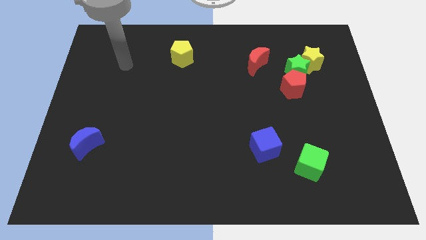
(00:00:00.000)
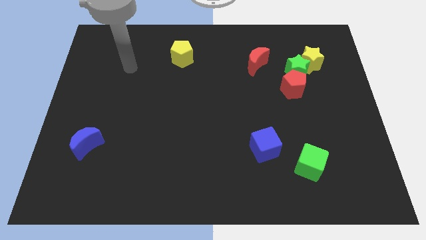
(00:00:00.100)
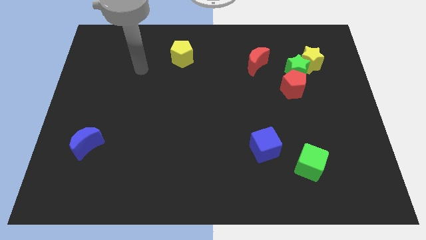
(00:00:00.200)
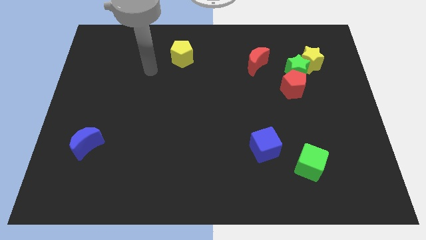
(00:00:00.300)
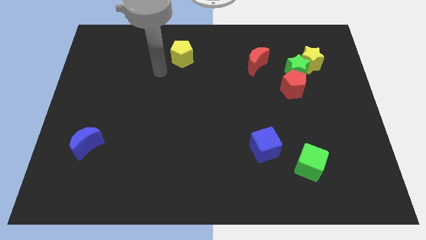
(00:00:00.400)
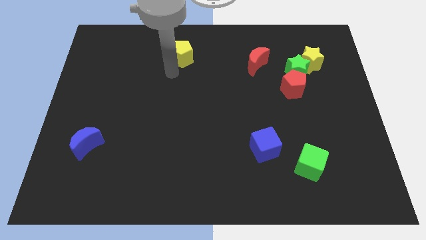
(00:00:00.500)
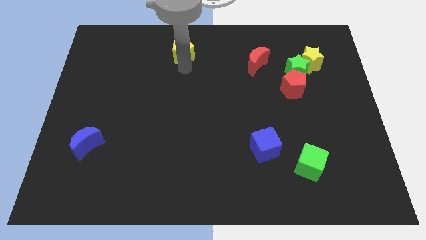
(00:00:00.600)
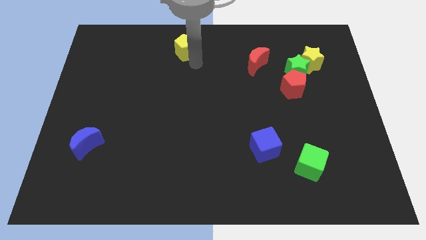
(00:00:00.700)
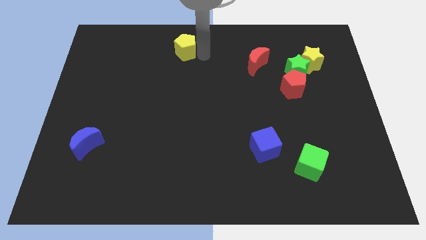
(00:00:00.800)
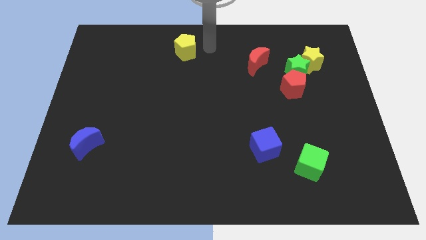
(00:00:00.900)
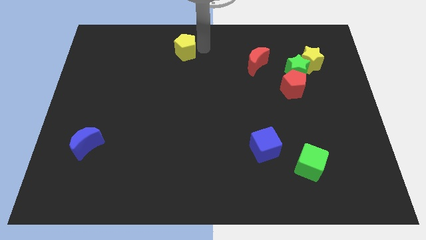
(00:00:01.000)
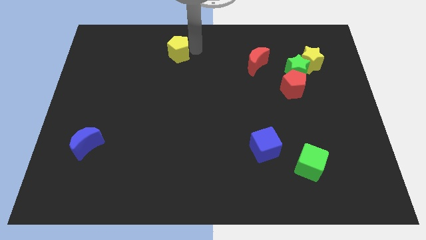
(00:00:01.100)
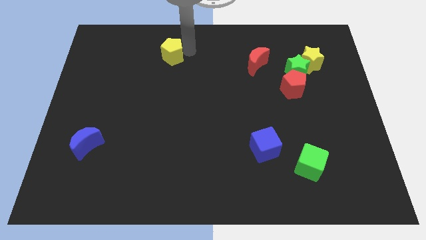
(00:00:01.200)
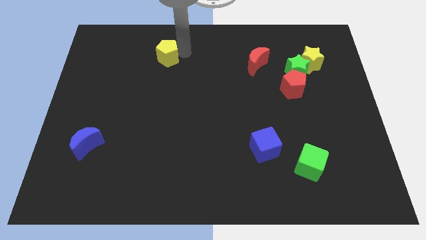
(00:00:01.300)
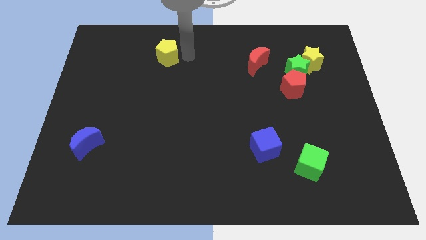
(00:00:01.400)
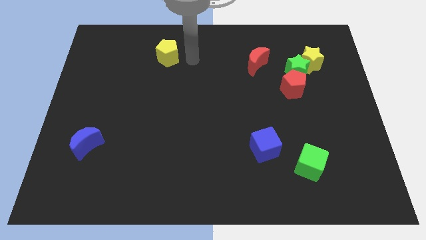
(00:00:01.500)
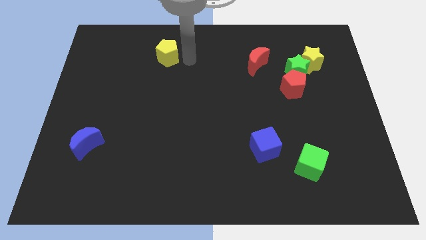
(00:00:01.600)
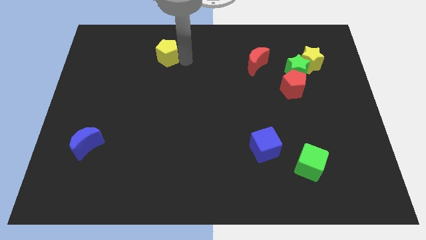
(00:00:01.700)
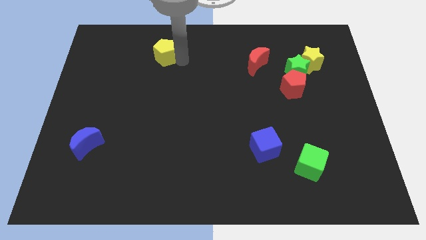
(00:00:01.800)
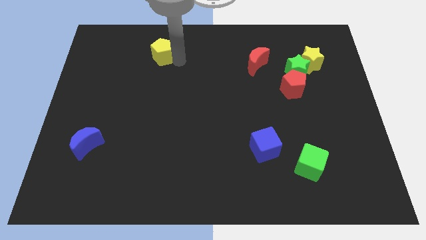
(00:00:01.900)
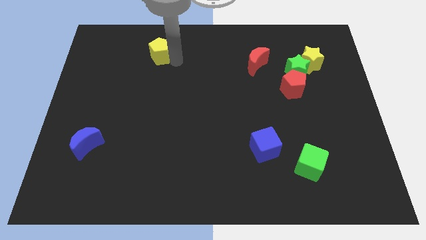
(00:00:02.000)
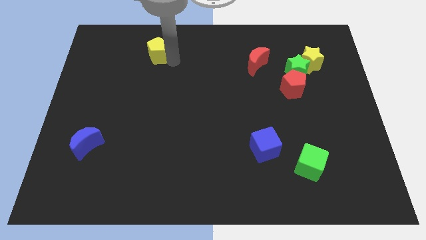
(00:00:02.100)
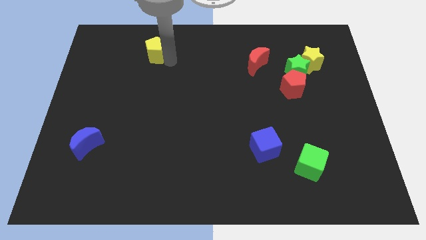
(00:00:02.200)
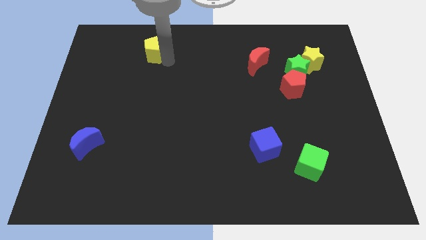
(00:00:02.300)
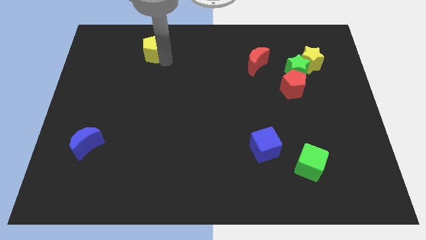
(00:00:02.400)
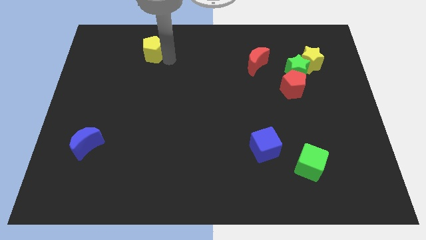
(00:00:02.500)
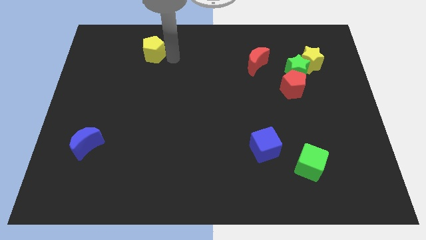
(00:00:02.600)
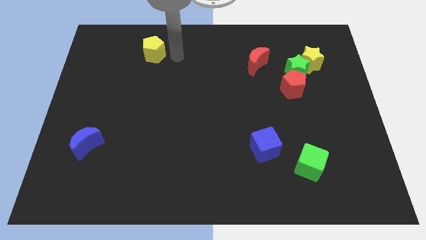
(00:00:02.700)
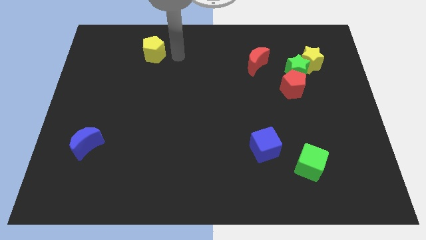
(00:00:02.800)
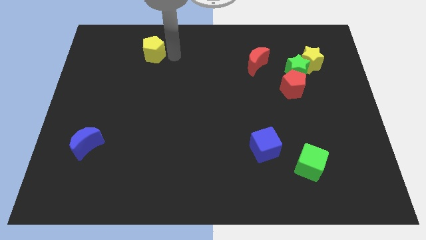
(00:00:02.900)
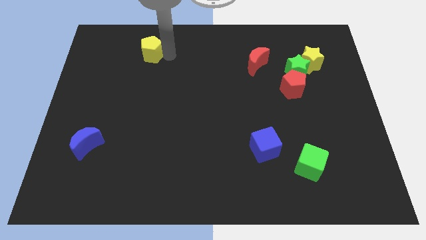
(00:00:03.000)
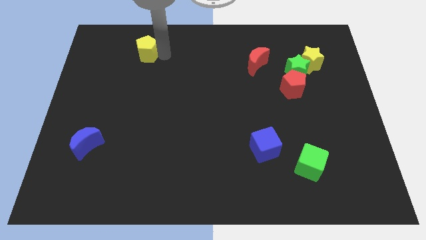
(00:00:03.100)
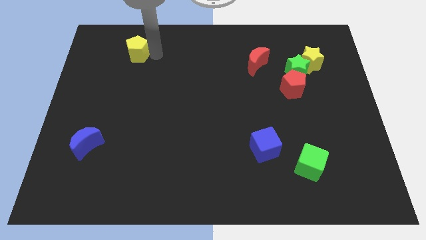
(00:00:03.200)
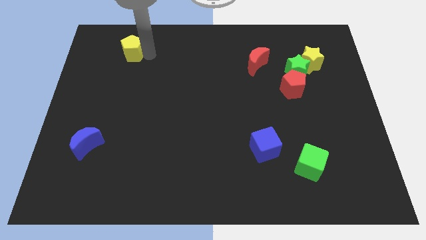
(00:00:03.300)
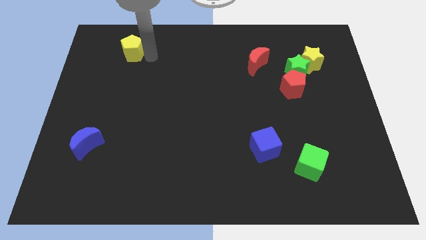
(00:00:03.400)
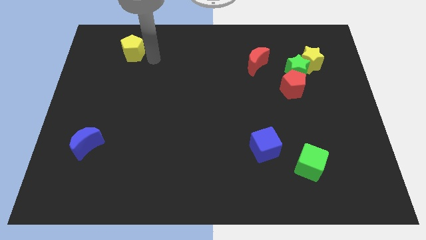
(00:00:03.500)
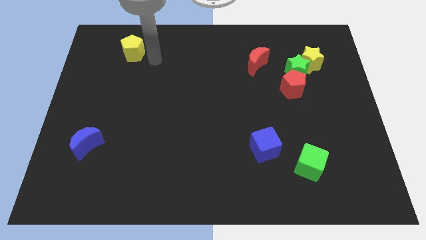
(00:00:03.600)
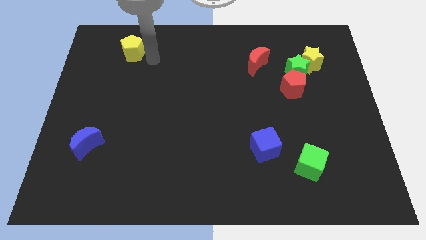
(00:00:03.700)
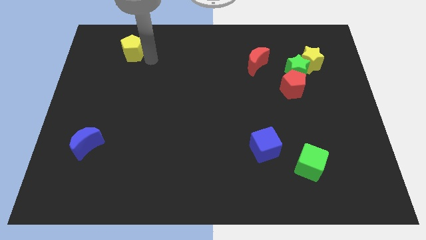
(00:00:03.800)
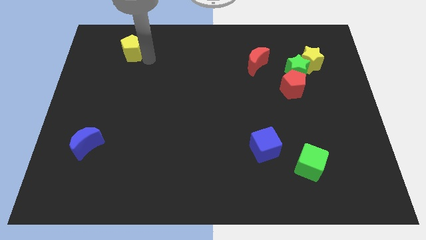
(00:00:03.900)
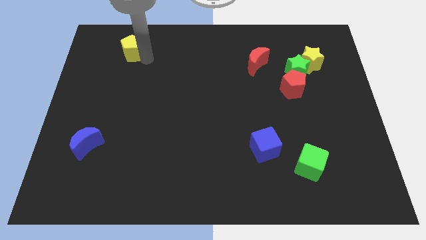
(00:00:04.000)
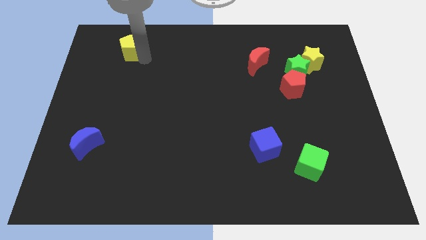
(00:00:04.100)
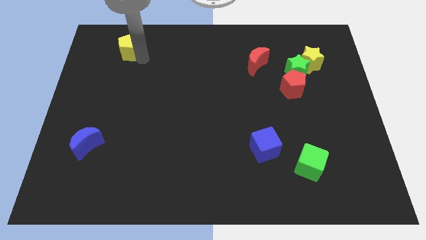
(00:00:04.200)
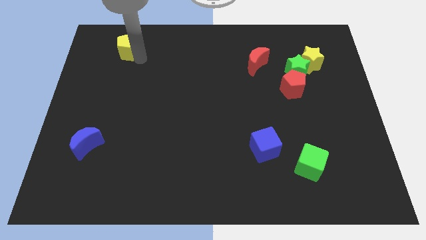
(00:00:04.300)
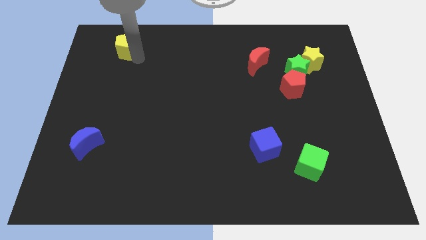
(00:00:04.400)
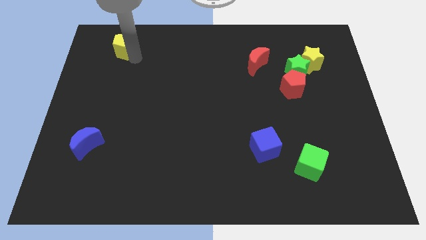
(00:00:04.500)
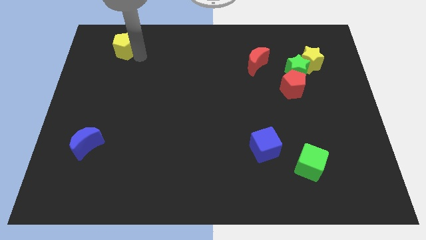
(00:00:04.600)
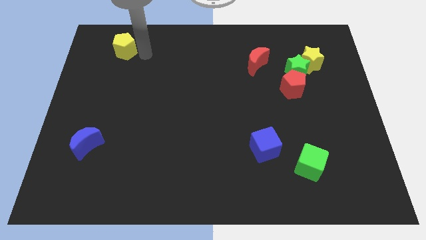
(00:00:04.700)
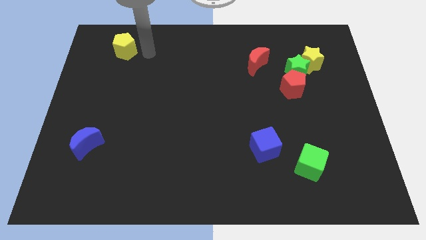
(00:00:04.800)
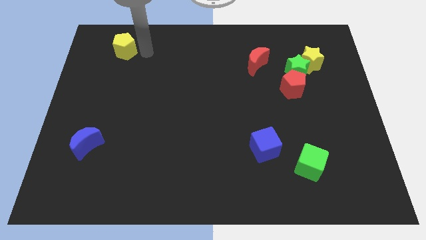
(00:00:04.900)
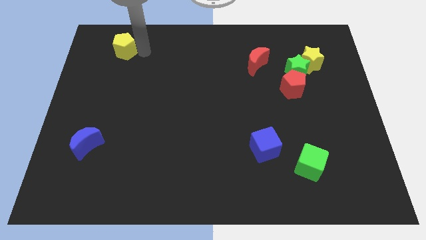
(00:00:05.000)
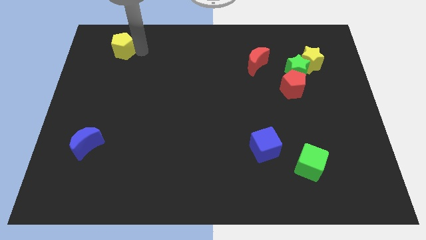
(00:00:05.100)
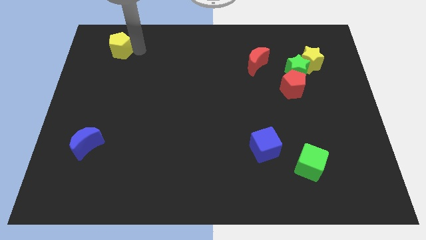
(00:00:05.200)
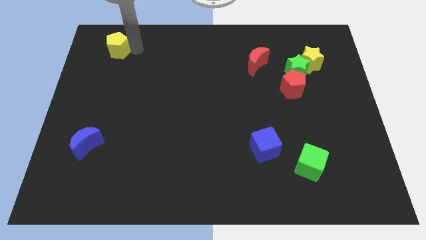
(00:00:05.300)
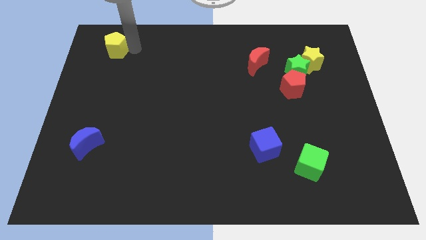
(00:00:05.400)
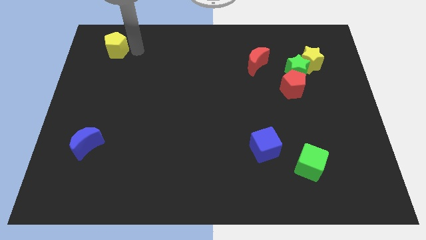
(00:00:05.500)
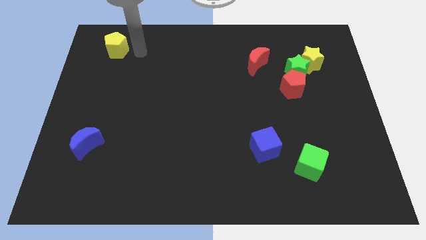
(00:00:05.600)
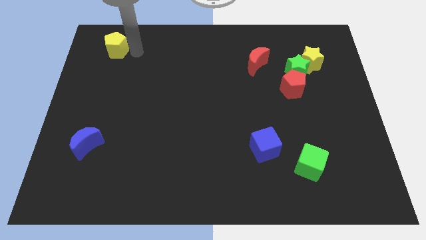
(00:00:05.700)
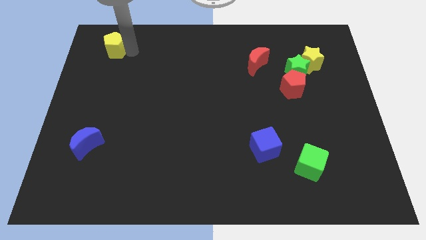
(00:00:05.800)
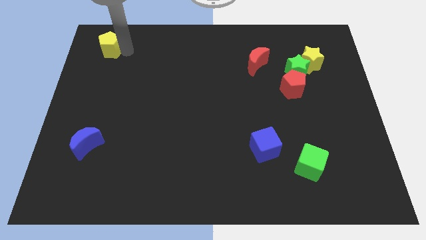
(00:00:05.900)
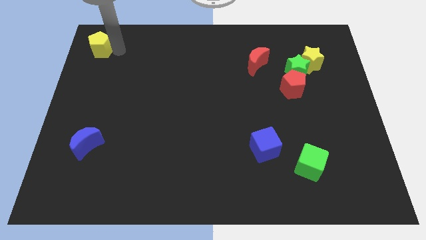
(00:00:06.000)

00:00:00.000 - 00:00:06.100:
move the yellow pentagon to the top left corner

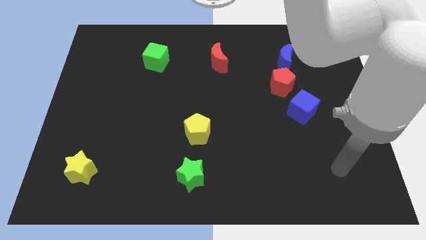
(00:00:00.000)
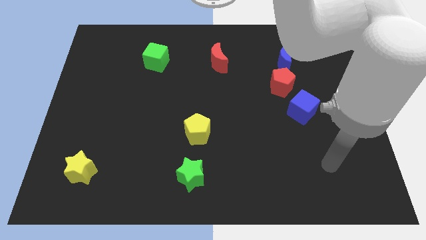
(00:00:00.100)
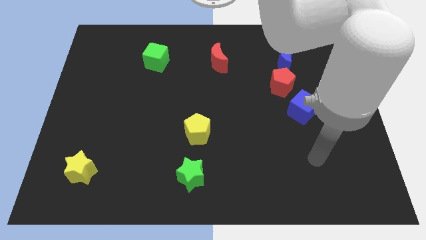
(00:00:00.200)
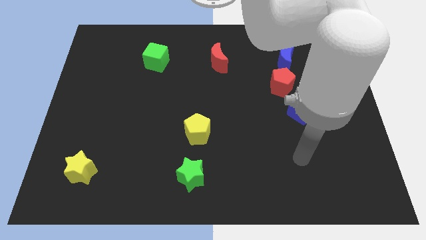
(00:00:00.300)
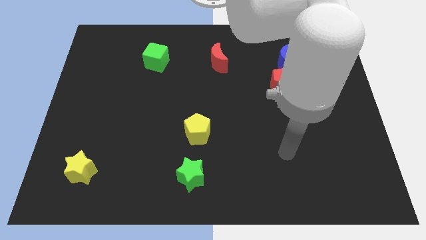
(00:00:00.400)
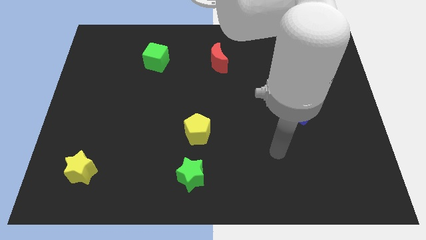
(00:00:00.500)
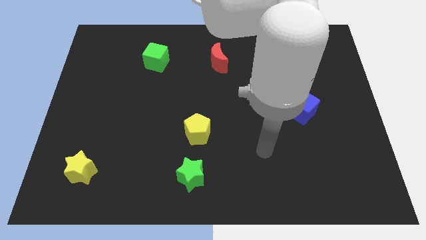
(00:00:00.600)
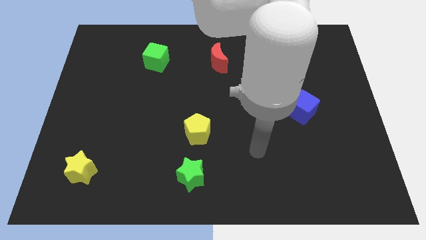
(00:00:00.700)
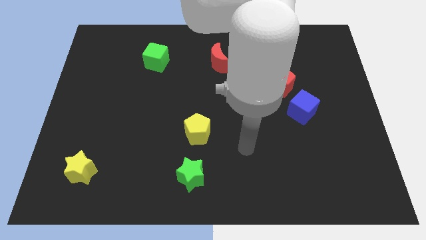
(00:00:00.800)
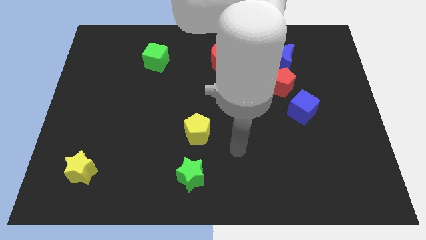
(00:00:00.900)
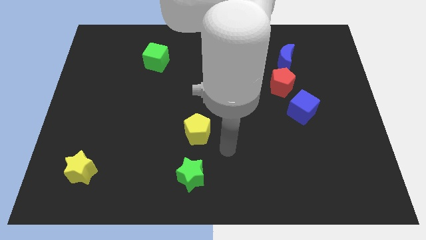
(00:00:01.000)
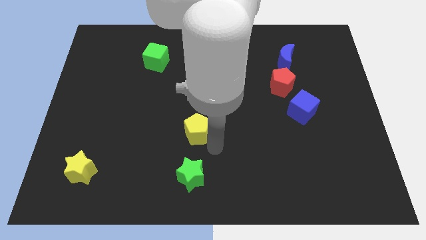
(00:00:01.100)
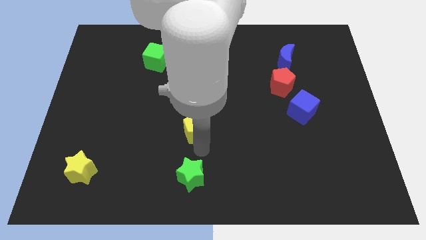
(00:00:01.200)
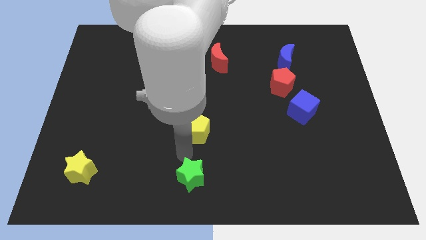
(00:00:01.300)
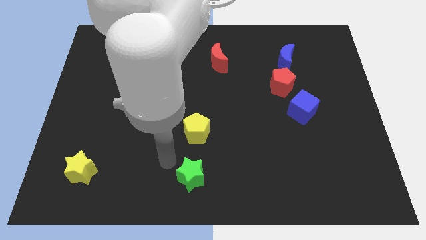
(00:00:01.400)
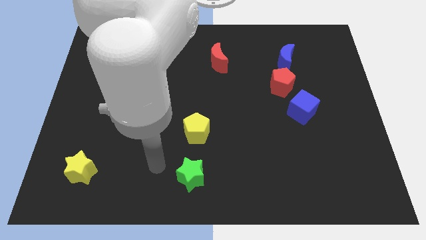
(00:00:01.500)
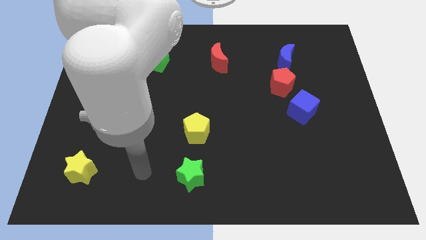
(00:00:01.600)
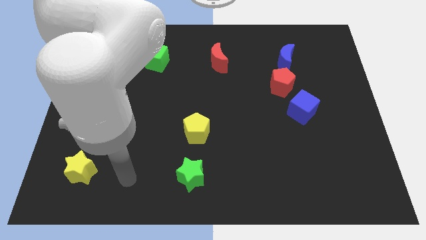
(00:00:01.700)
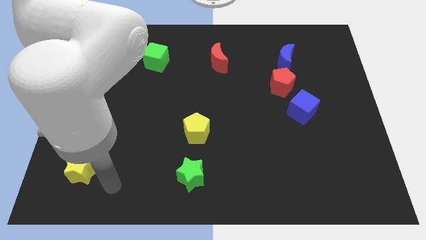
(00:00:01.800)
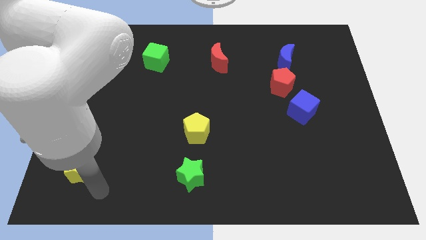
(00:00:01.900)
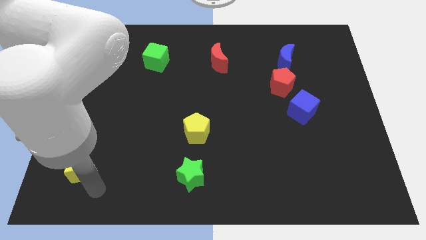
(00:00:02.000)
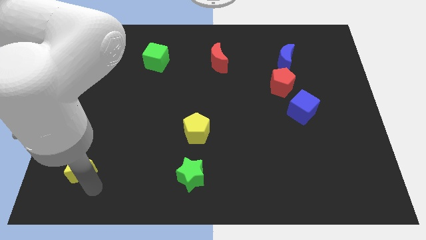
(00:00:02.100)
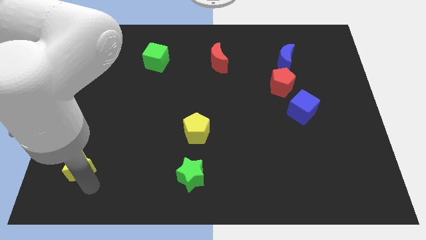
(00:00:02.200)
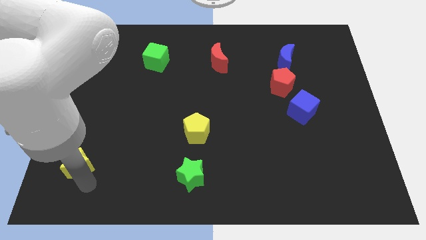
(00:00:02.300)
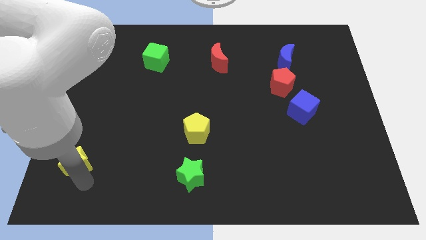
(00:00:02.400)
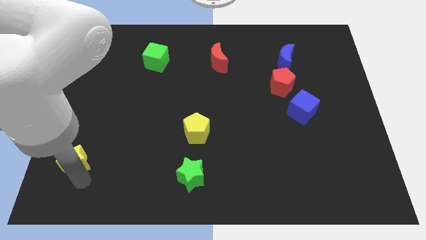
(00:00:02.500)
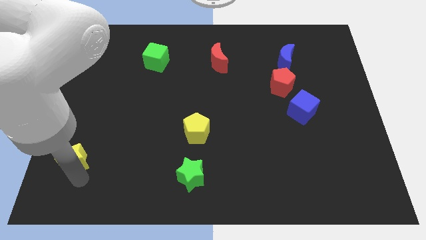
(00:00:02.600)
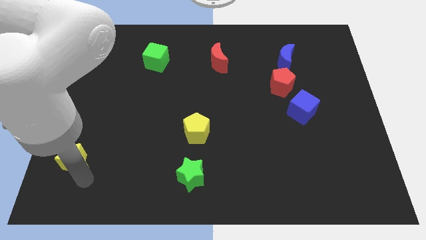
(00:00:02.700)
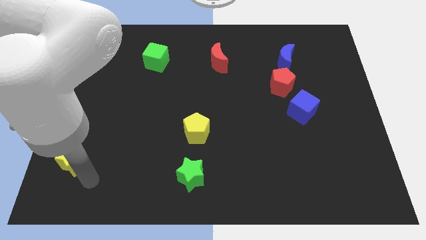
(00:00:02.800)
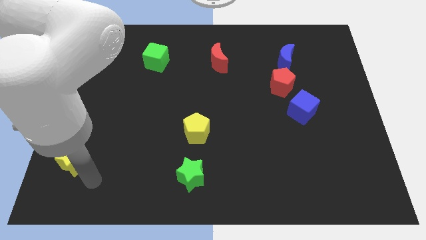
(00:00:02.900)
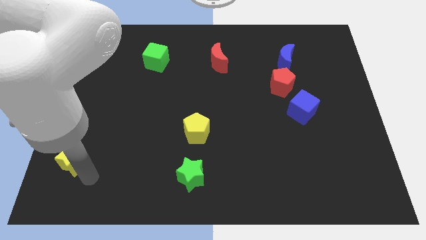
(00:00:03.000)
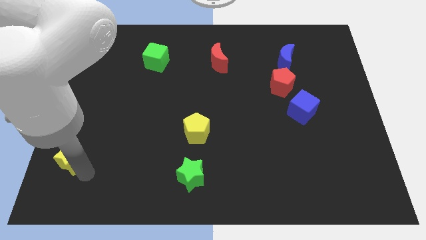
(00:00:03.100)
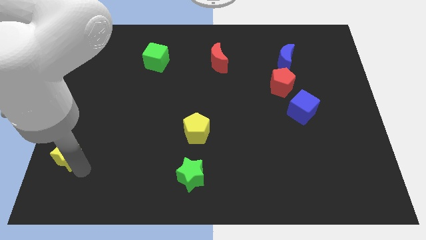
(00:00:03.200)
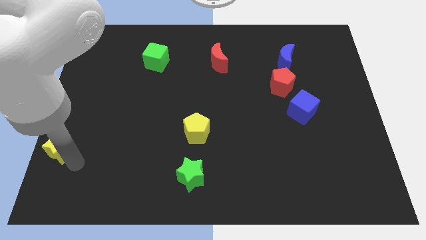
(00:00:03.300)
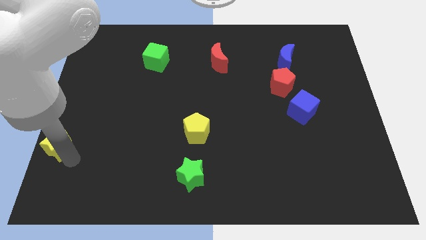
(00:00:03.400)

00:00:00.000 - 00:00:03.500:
slide the yellow star to the center left
